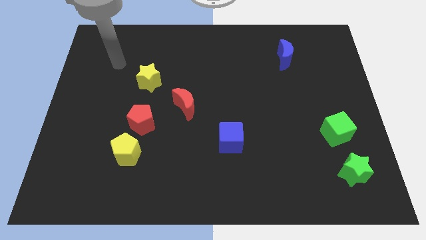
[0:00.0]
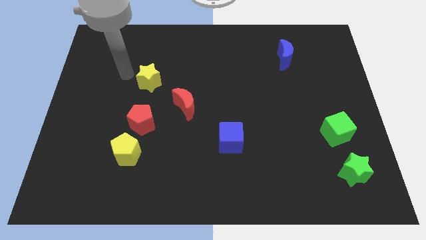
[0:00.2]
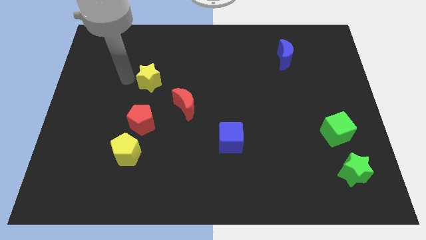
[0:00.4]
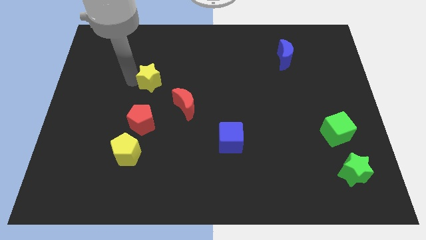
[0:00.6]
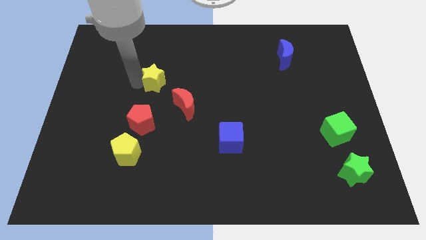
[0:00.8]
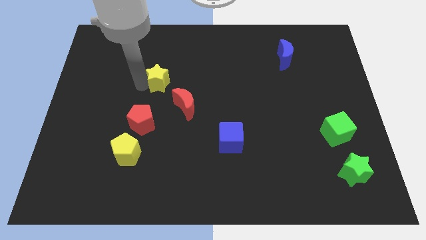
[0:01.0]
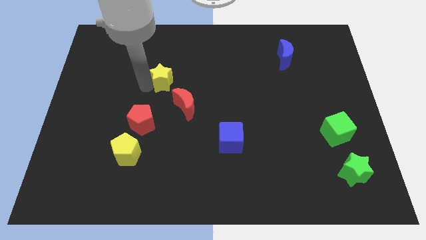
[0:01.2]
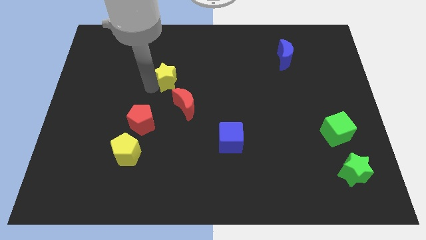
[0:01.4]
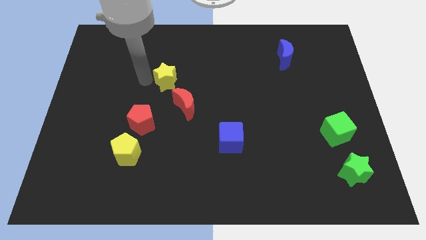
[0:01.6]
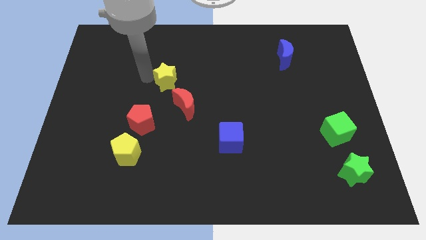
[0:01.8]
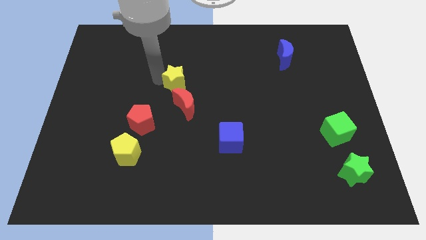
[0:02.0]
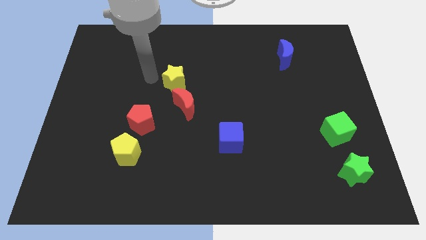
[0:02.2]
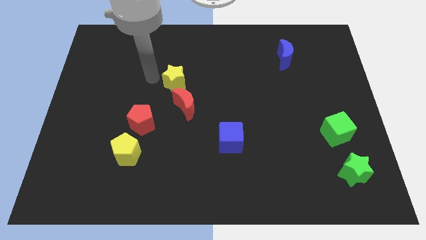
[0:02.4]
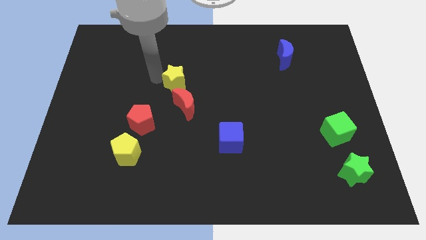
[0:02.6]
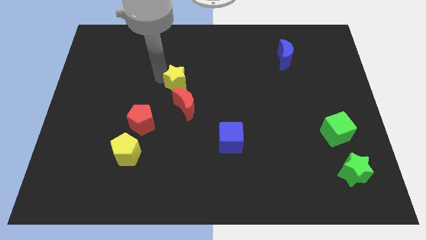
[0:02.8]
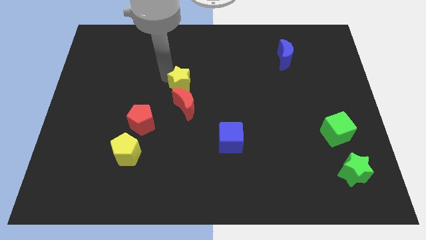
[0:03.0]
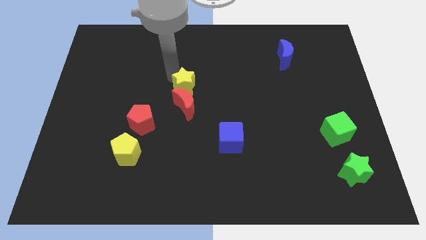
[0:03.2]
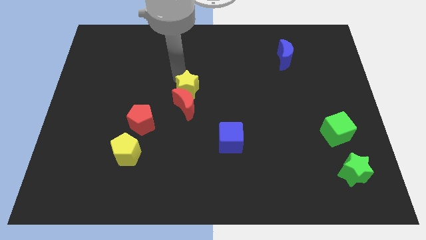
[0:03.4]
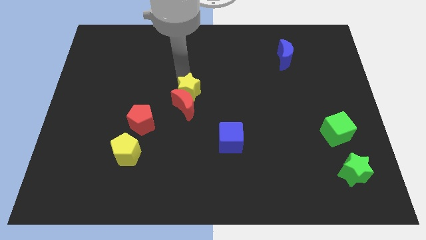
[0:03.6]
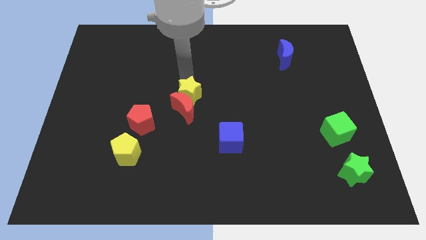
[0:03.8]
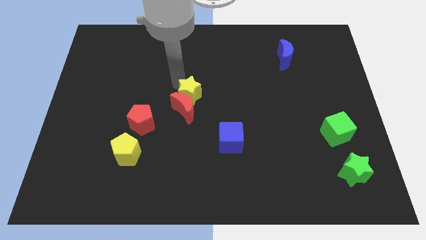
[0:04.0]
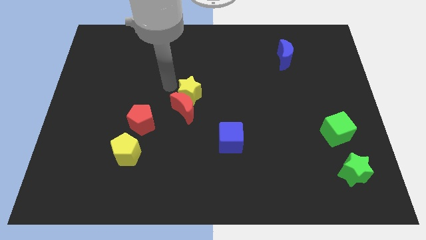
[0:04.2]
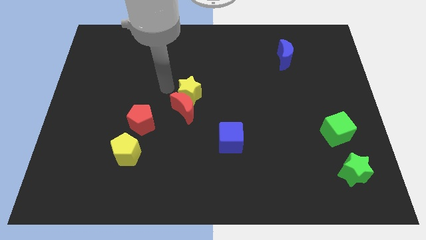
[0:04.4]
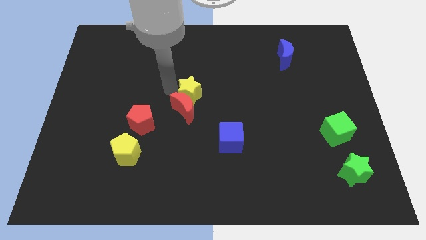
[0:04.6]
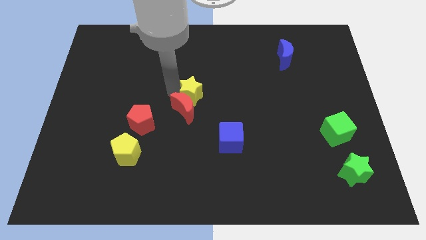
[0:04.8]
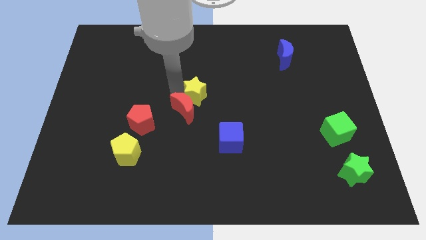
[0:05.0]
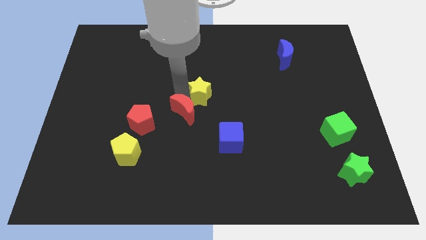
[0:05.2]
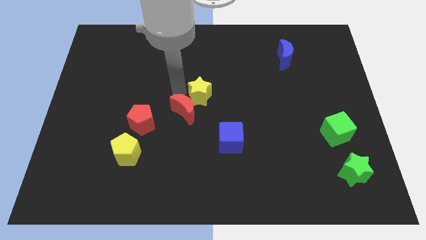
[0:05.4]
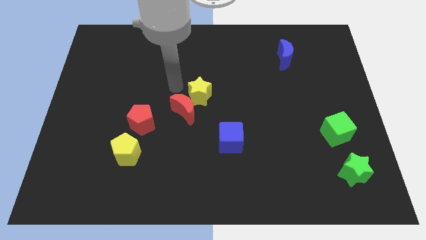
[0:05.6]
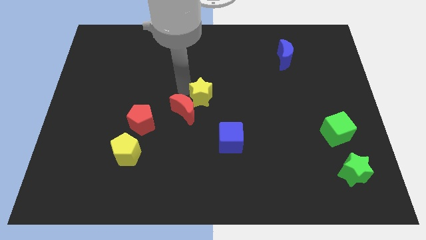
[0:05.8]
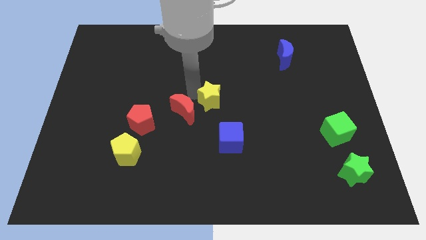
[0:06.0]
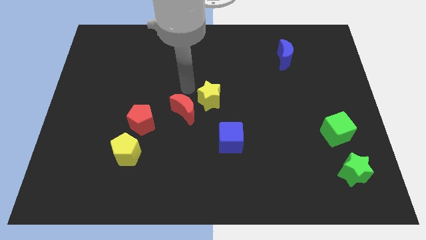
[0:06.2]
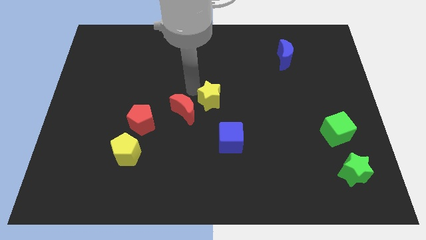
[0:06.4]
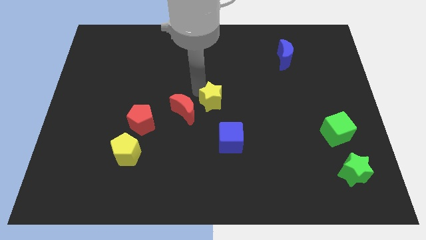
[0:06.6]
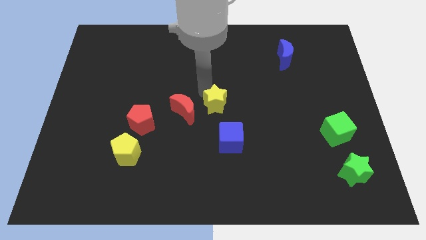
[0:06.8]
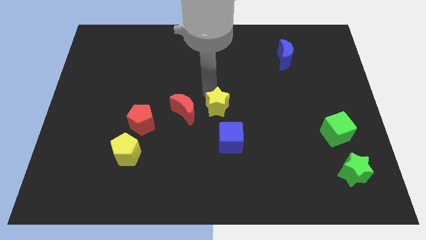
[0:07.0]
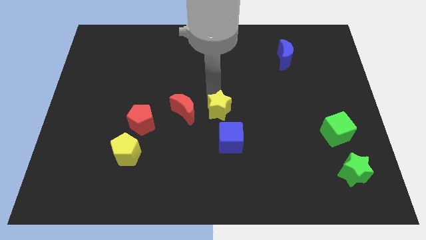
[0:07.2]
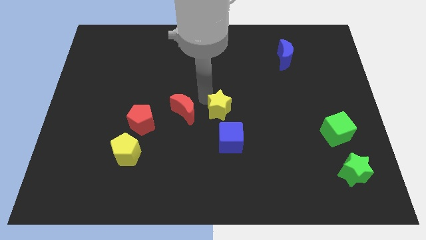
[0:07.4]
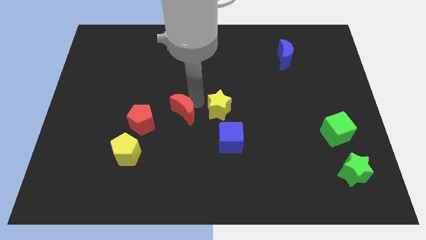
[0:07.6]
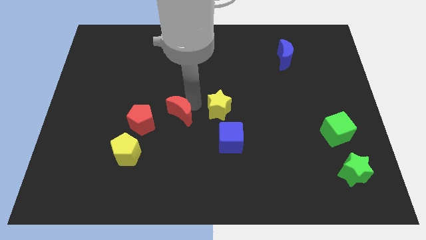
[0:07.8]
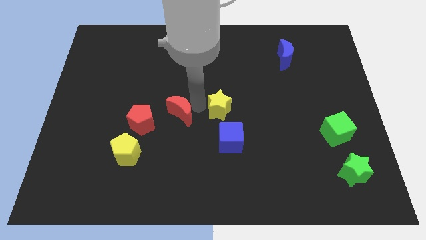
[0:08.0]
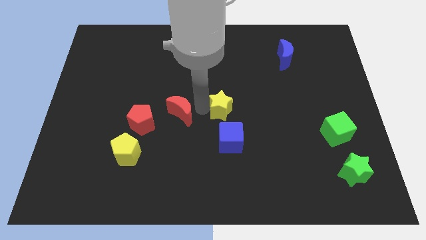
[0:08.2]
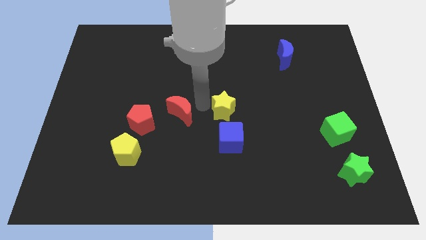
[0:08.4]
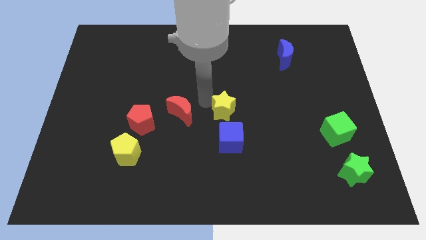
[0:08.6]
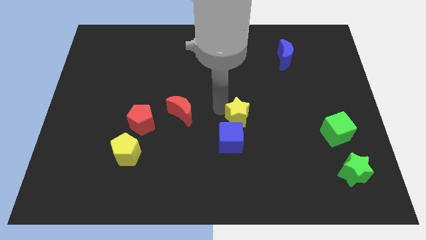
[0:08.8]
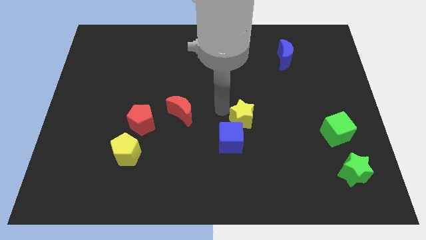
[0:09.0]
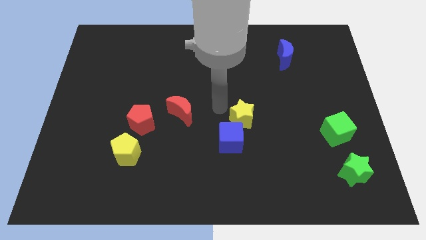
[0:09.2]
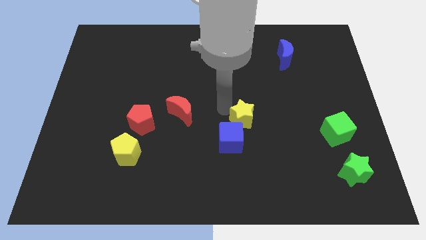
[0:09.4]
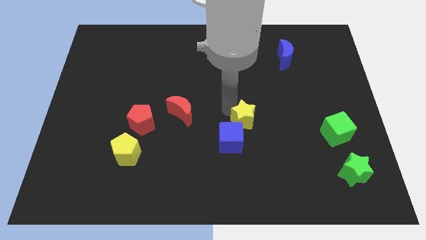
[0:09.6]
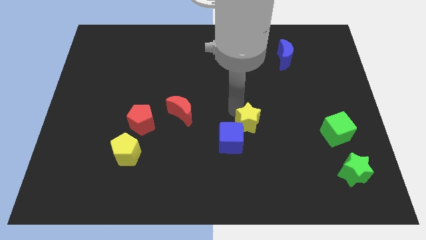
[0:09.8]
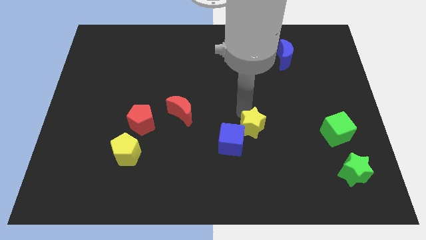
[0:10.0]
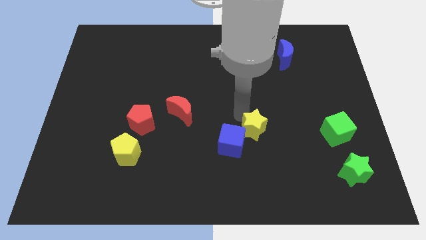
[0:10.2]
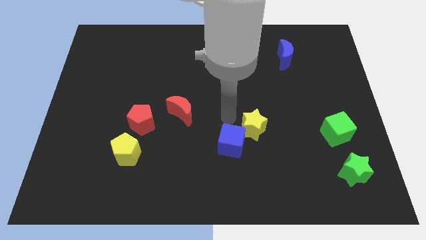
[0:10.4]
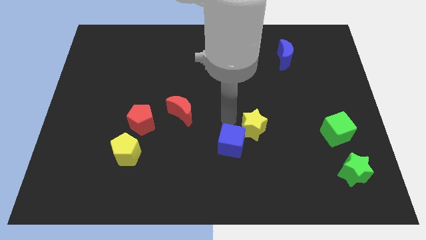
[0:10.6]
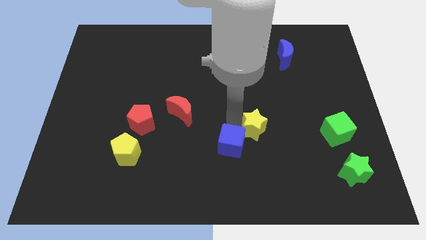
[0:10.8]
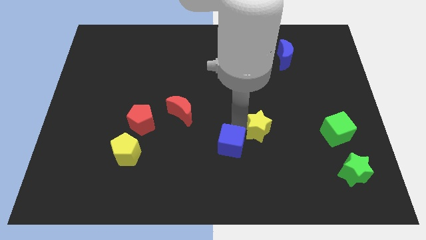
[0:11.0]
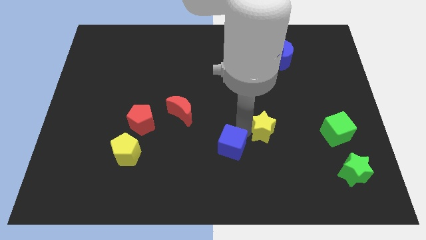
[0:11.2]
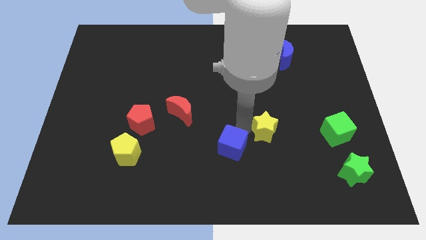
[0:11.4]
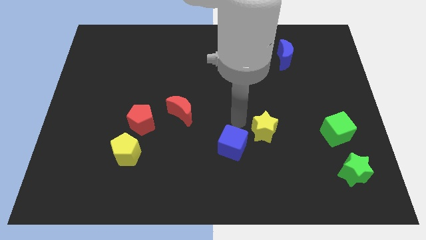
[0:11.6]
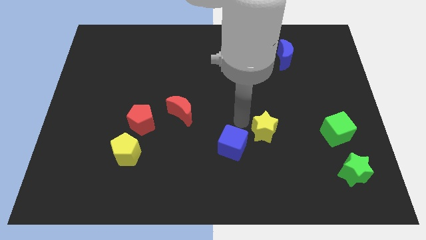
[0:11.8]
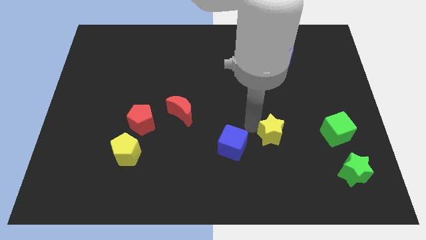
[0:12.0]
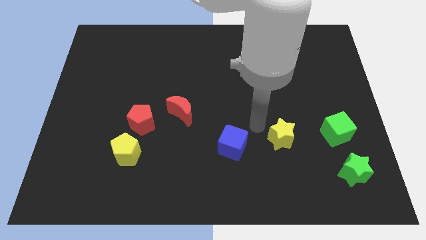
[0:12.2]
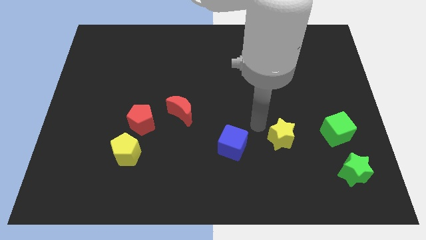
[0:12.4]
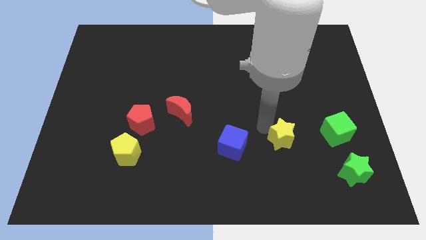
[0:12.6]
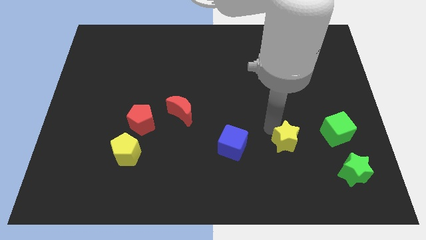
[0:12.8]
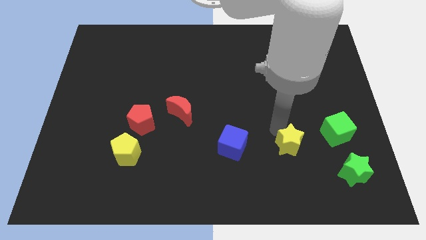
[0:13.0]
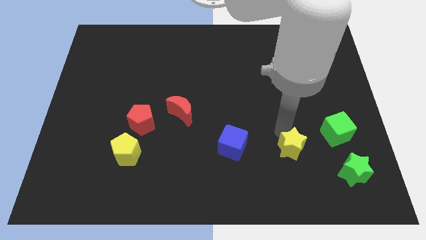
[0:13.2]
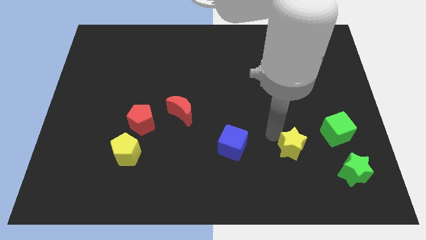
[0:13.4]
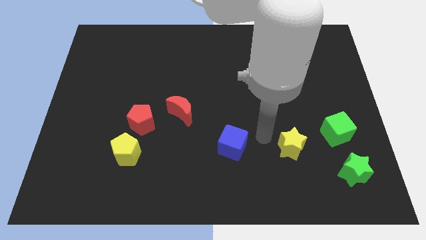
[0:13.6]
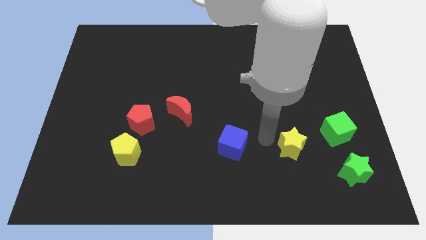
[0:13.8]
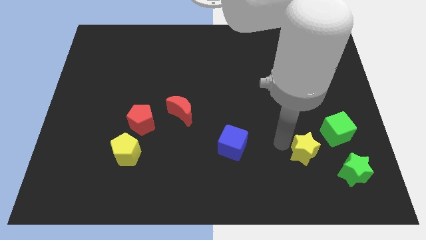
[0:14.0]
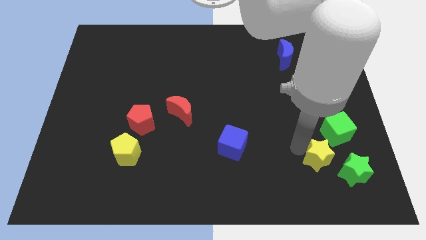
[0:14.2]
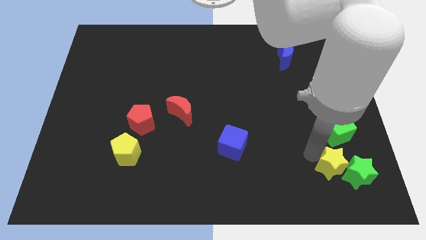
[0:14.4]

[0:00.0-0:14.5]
put the yellow star to the green star
